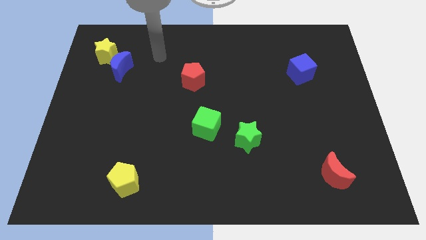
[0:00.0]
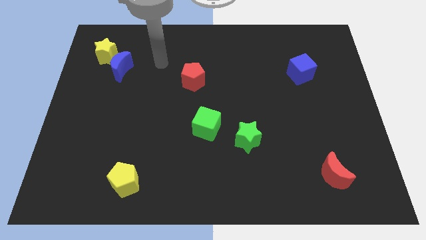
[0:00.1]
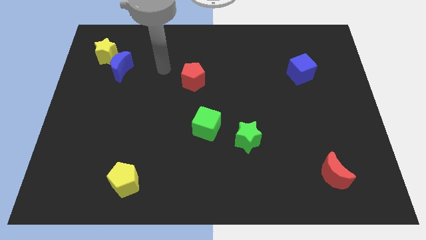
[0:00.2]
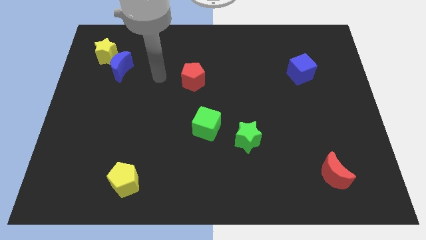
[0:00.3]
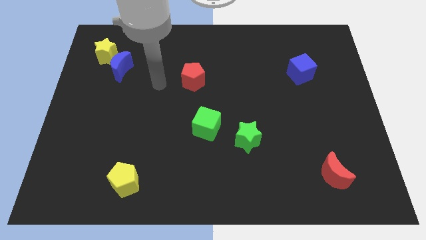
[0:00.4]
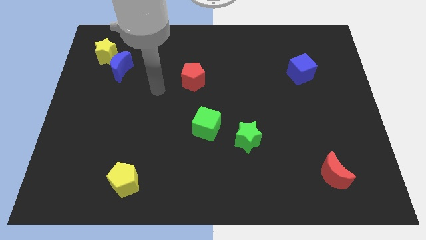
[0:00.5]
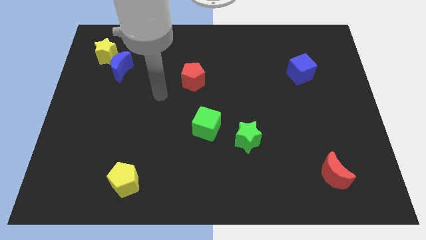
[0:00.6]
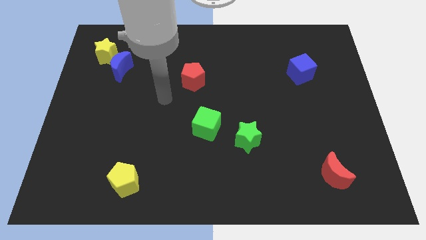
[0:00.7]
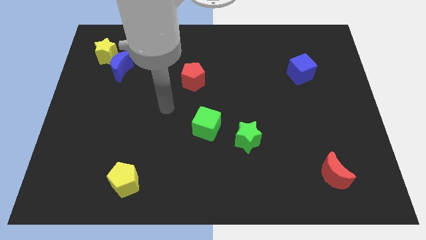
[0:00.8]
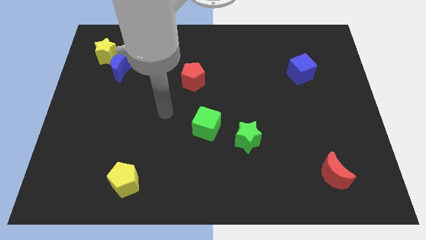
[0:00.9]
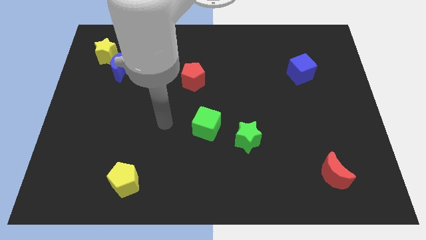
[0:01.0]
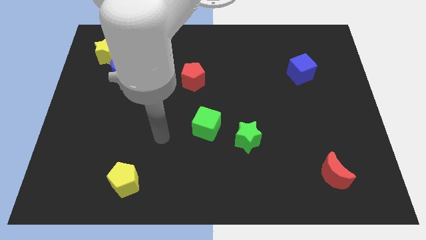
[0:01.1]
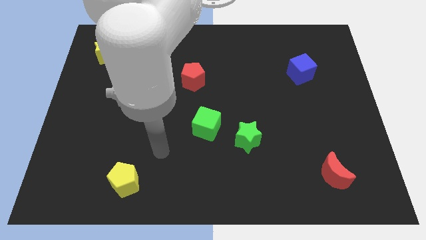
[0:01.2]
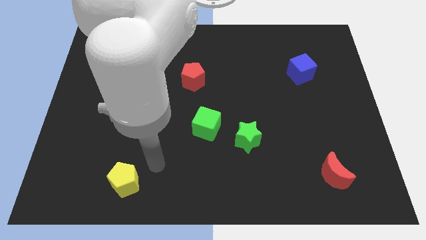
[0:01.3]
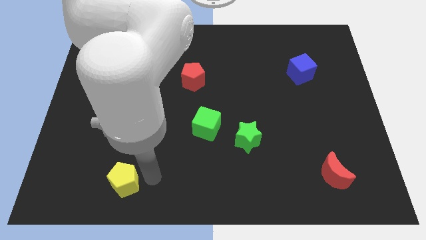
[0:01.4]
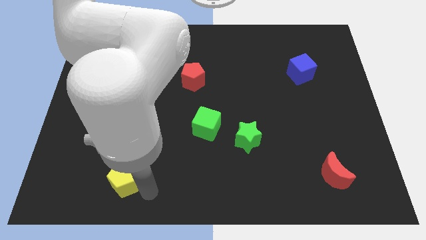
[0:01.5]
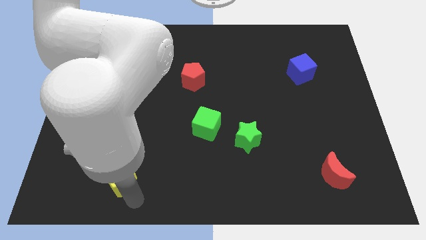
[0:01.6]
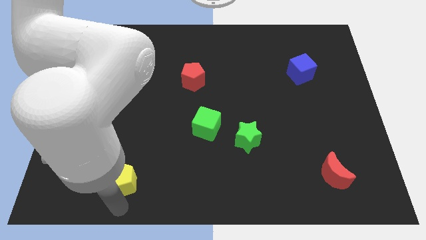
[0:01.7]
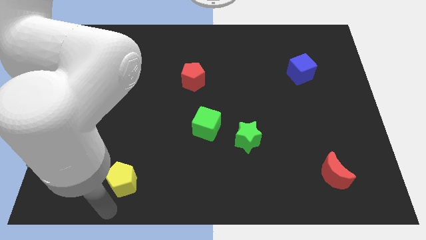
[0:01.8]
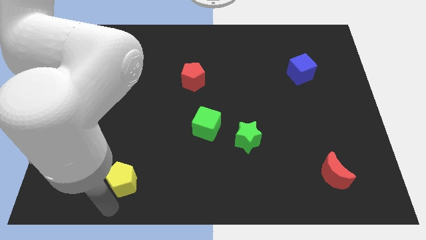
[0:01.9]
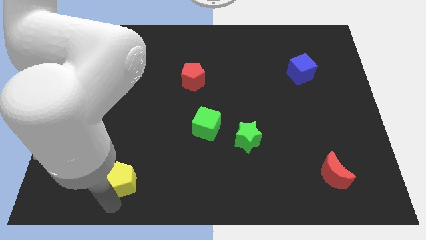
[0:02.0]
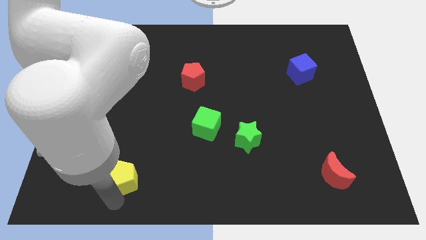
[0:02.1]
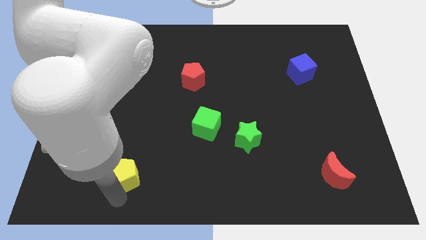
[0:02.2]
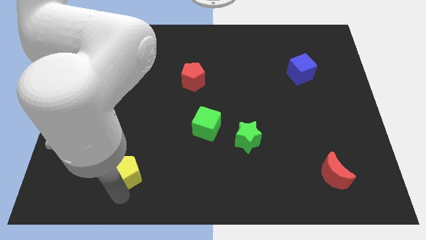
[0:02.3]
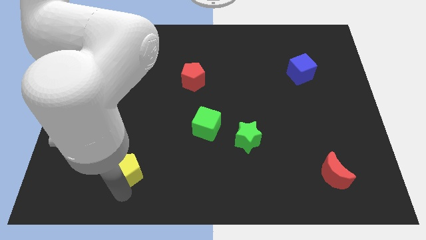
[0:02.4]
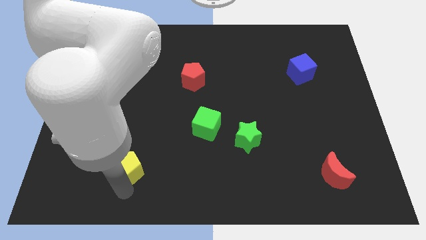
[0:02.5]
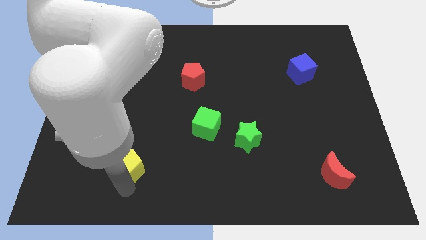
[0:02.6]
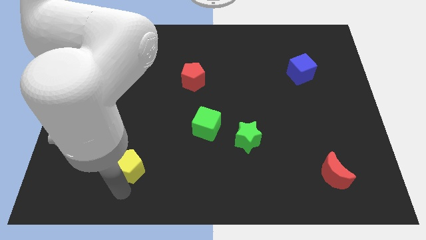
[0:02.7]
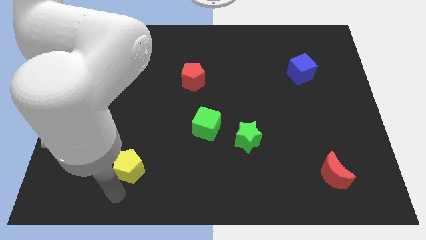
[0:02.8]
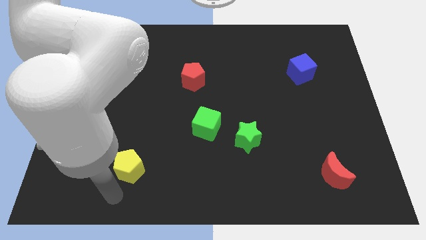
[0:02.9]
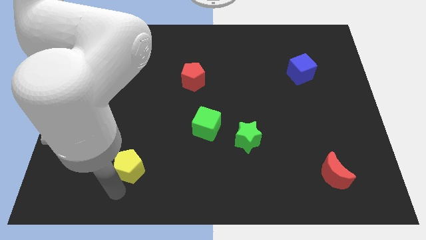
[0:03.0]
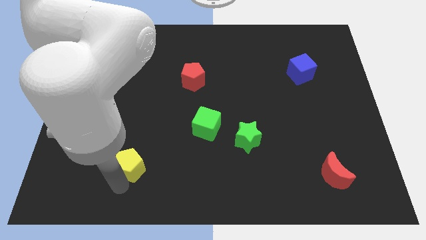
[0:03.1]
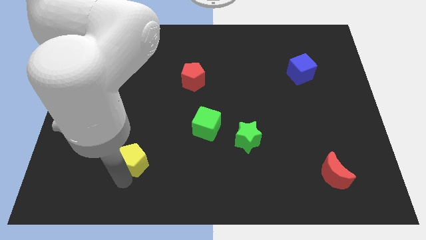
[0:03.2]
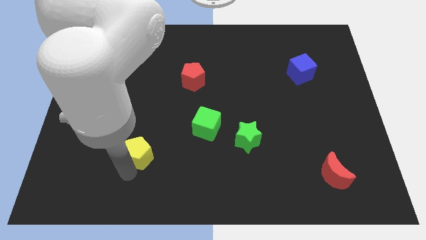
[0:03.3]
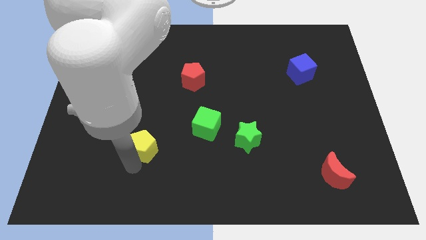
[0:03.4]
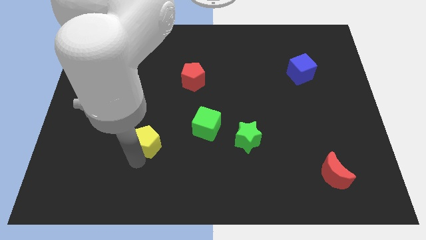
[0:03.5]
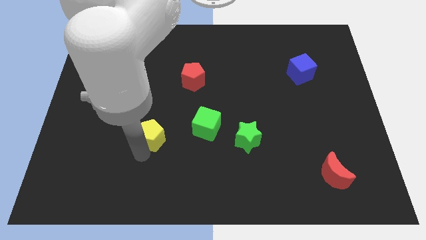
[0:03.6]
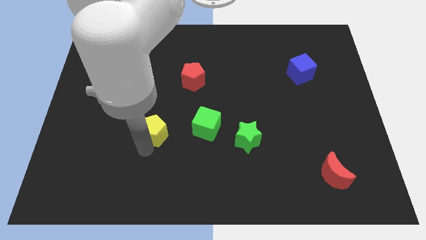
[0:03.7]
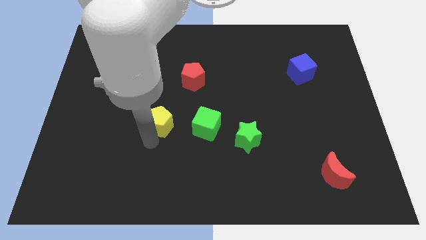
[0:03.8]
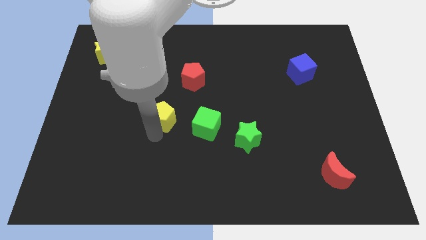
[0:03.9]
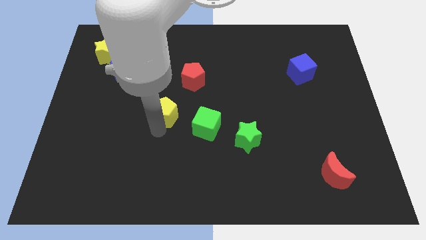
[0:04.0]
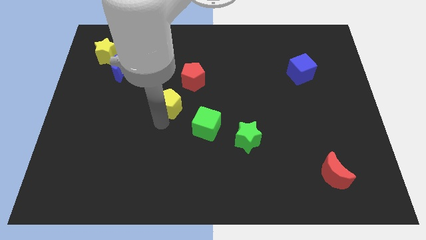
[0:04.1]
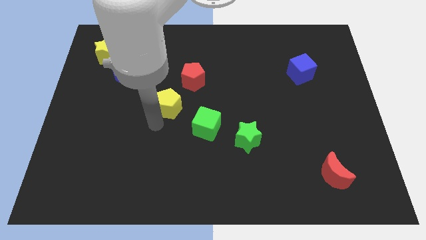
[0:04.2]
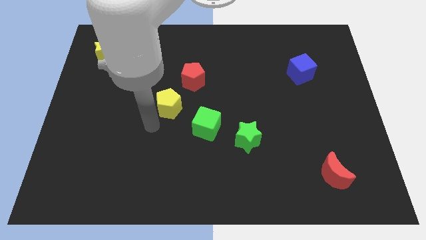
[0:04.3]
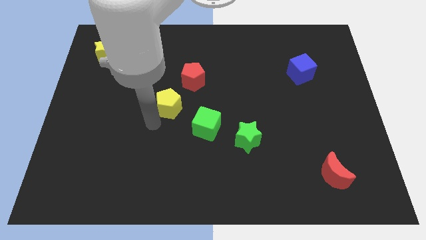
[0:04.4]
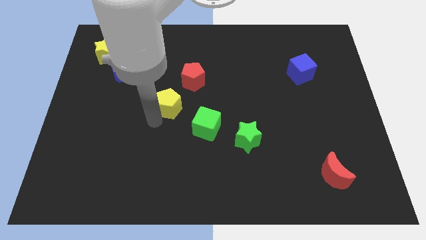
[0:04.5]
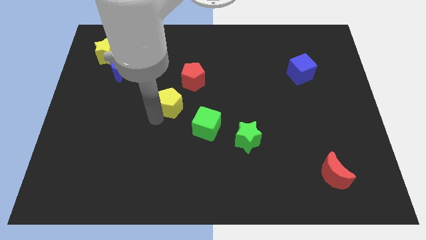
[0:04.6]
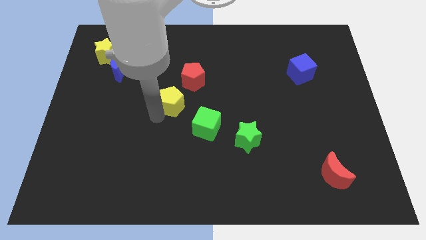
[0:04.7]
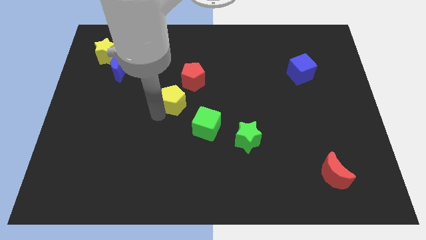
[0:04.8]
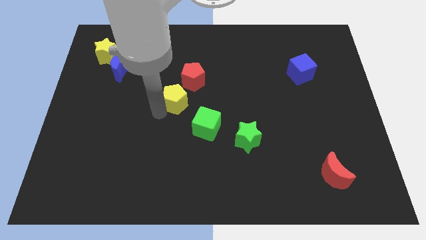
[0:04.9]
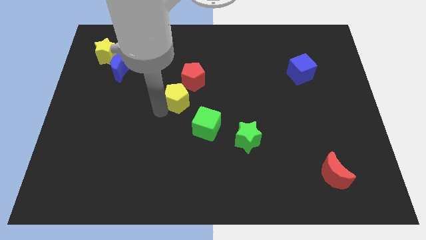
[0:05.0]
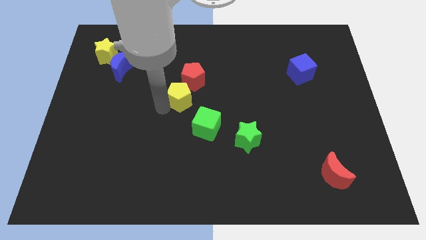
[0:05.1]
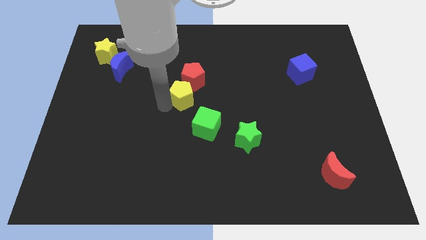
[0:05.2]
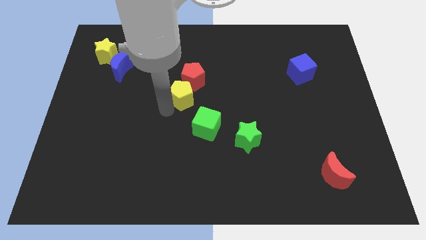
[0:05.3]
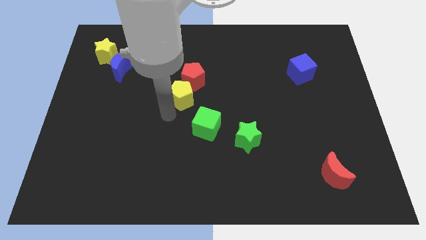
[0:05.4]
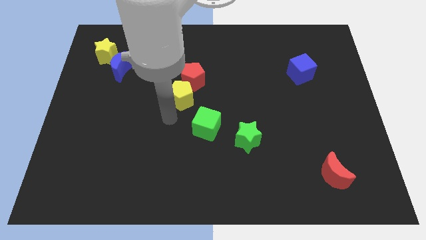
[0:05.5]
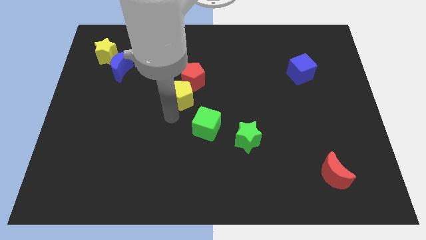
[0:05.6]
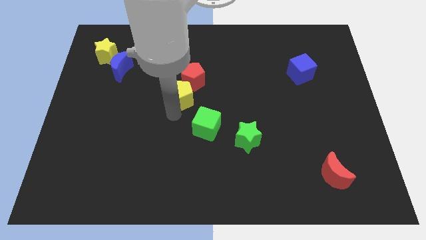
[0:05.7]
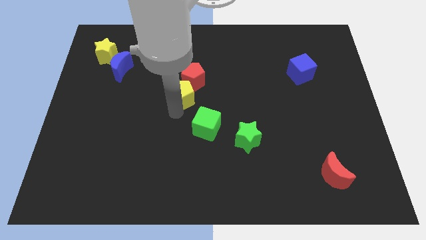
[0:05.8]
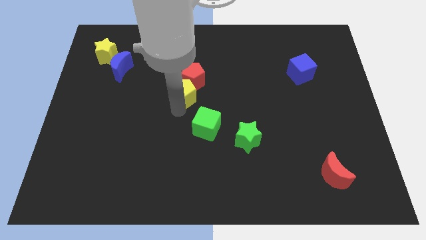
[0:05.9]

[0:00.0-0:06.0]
move the yellow pentagon close to the red pentagon
